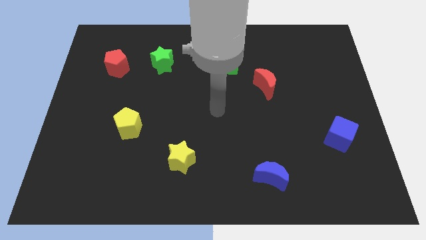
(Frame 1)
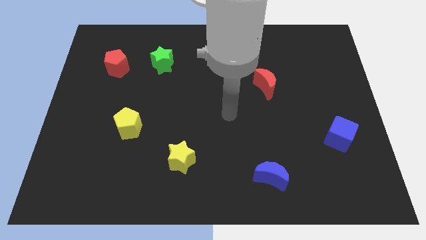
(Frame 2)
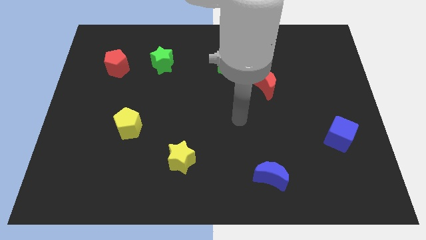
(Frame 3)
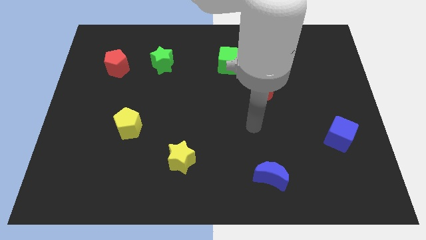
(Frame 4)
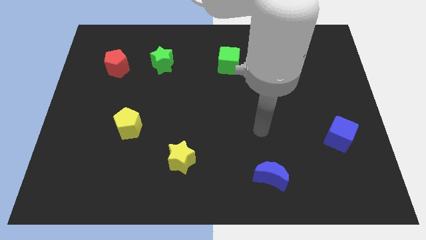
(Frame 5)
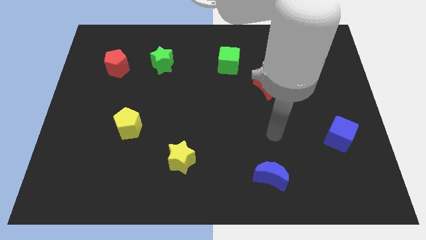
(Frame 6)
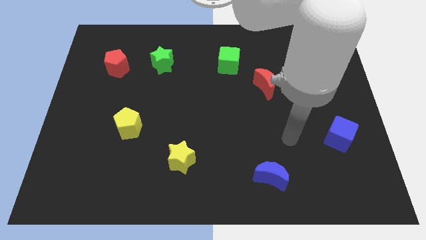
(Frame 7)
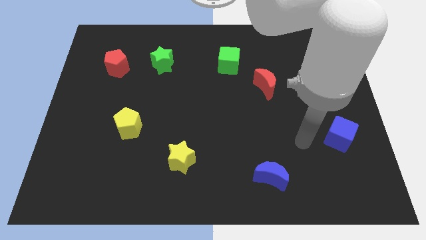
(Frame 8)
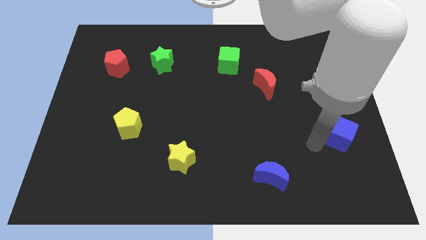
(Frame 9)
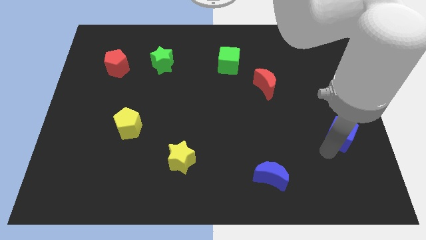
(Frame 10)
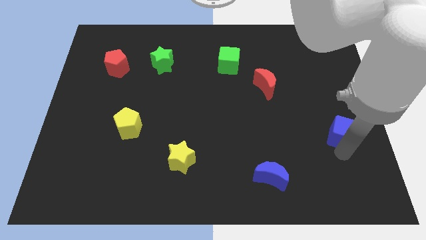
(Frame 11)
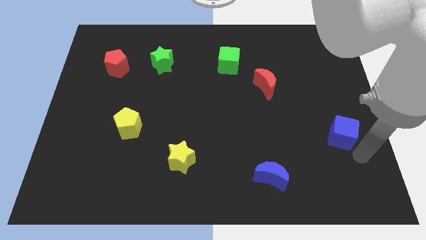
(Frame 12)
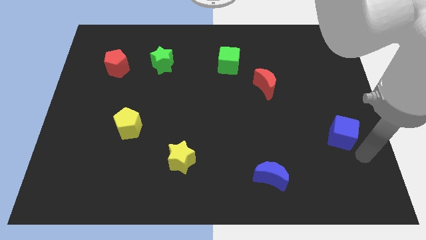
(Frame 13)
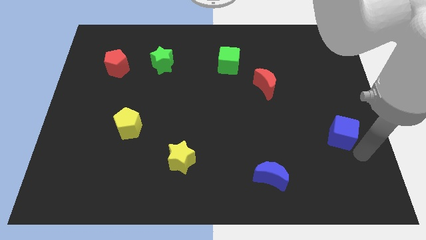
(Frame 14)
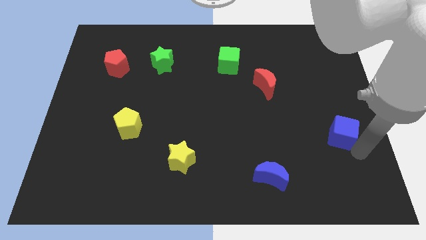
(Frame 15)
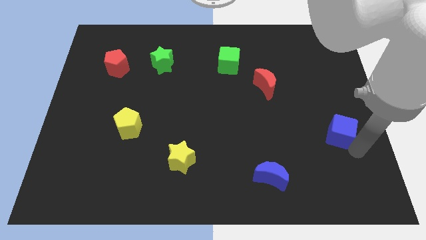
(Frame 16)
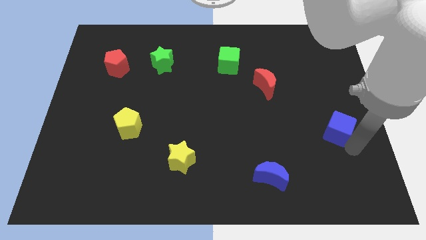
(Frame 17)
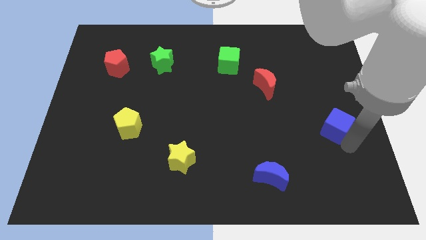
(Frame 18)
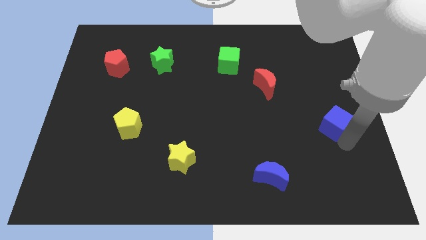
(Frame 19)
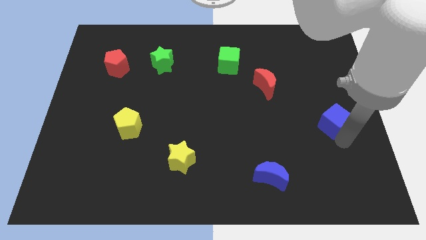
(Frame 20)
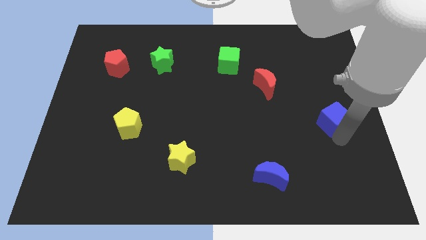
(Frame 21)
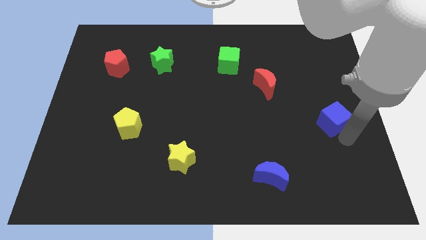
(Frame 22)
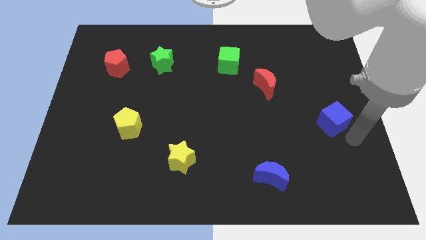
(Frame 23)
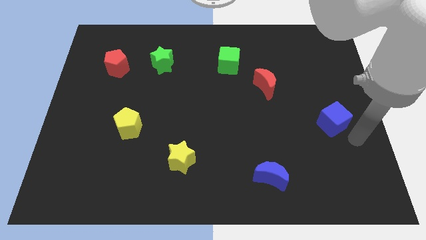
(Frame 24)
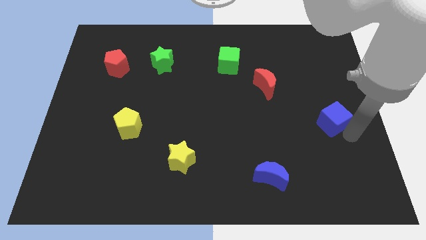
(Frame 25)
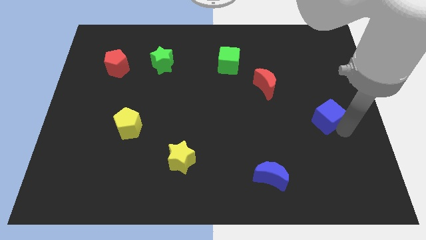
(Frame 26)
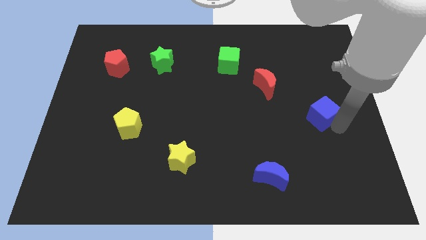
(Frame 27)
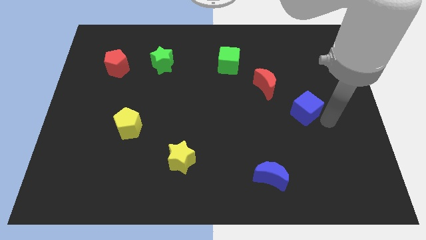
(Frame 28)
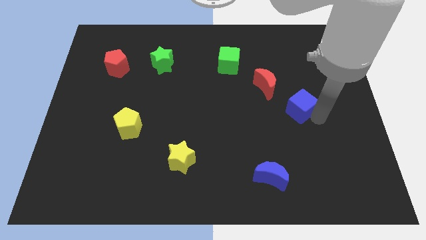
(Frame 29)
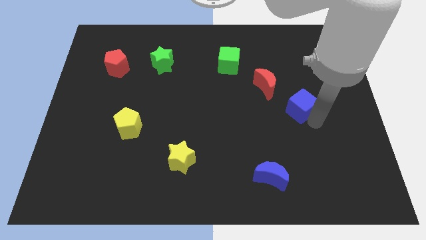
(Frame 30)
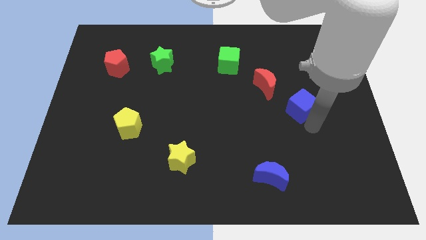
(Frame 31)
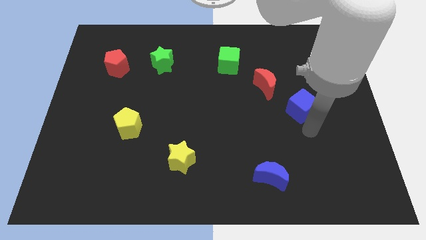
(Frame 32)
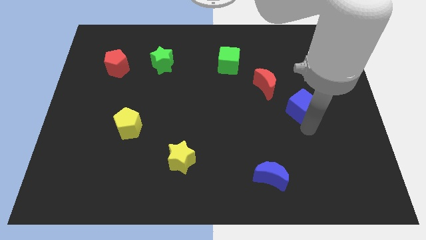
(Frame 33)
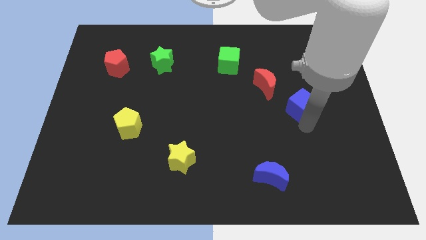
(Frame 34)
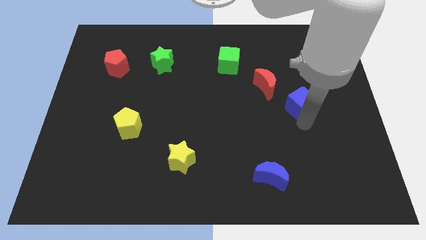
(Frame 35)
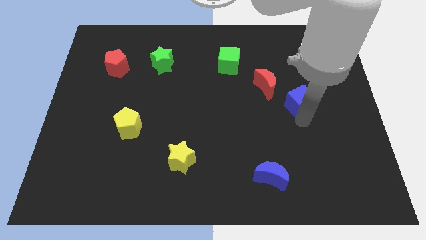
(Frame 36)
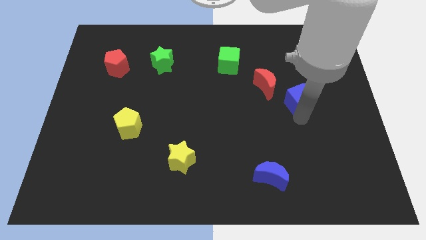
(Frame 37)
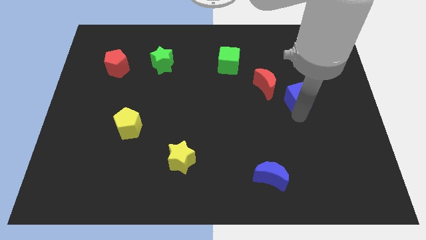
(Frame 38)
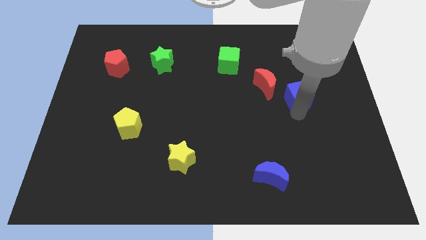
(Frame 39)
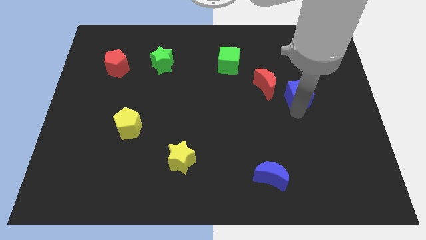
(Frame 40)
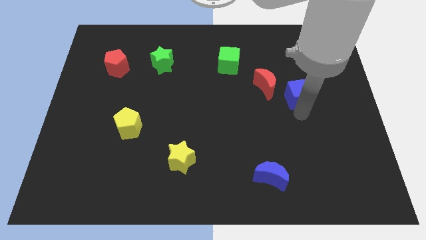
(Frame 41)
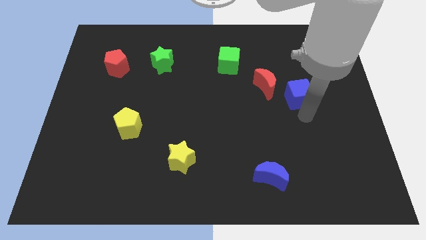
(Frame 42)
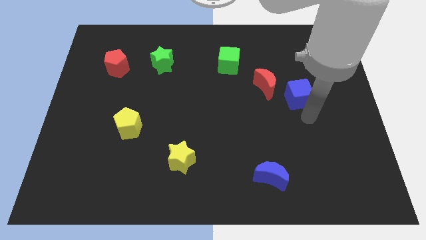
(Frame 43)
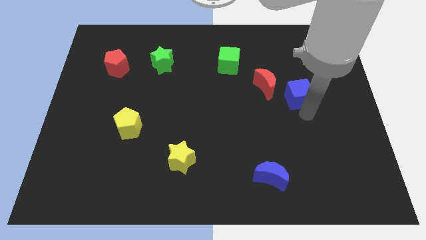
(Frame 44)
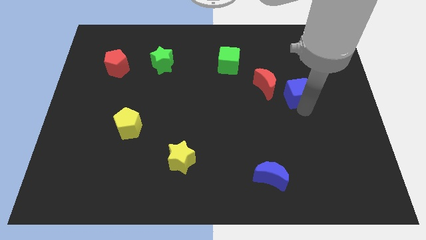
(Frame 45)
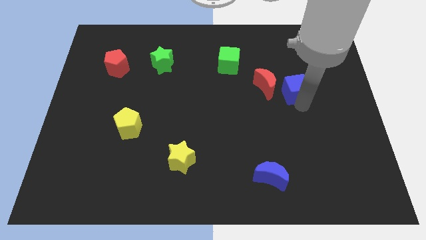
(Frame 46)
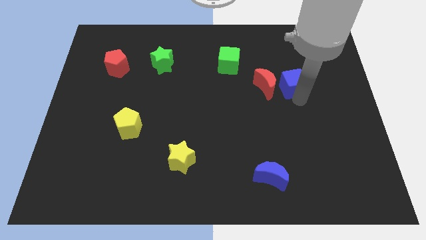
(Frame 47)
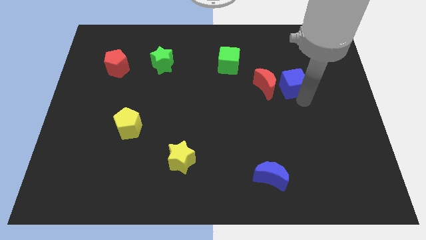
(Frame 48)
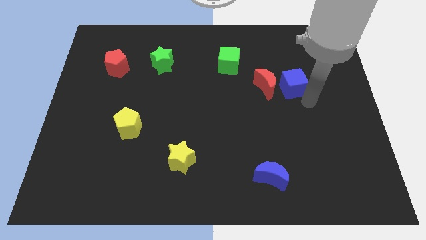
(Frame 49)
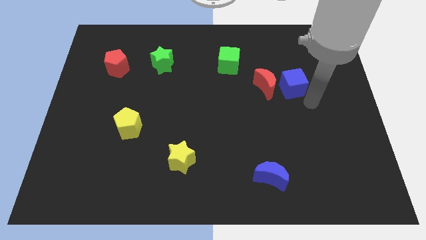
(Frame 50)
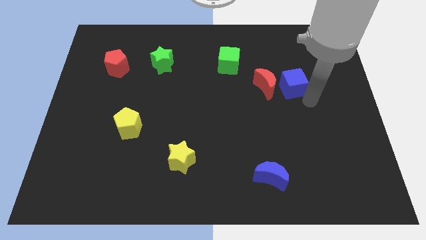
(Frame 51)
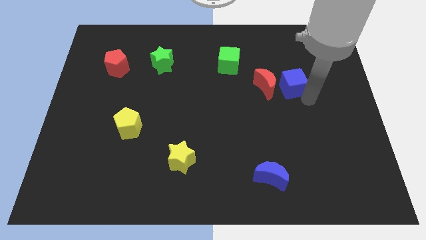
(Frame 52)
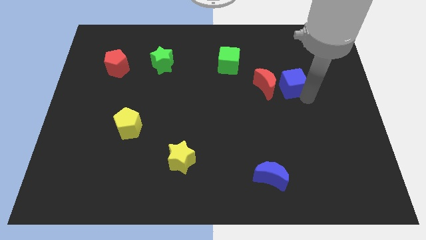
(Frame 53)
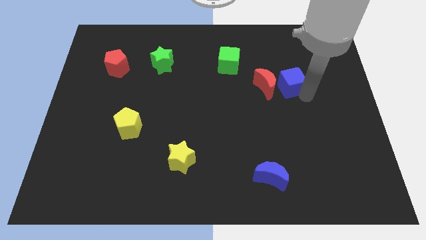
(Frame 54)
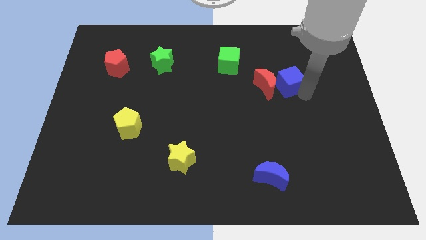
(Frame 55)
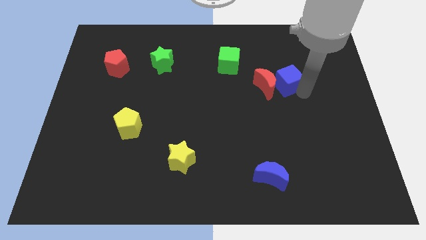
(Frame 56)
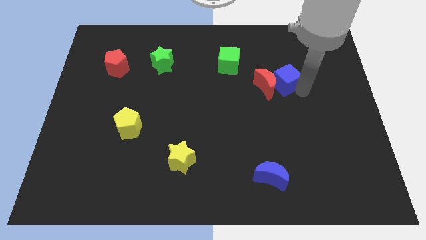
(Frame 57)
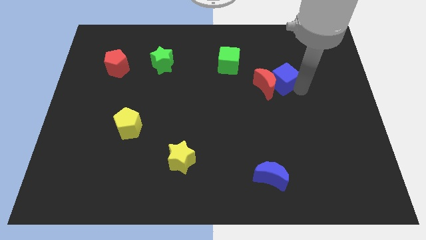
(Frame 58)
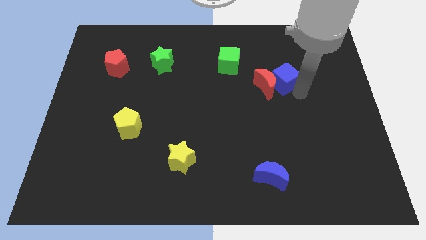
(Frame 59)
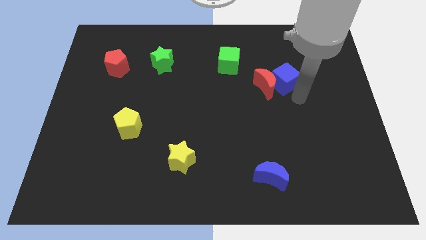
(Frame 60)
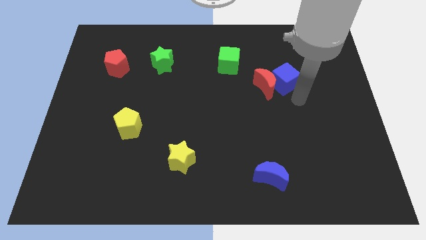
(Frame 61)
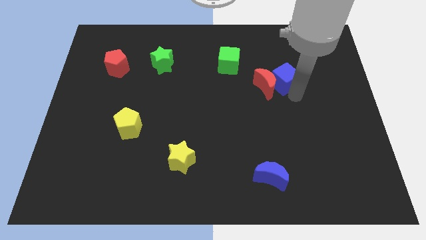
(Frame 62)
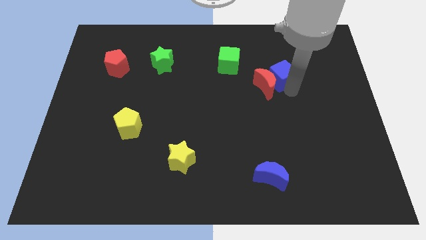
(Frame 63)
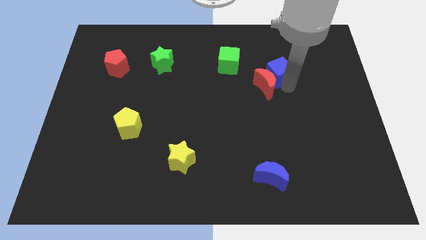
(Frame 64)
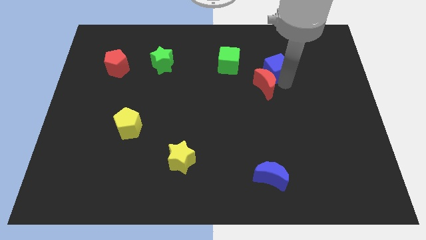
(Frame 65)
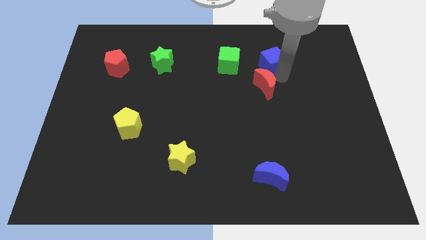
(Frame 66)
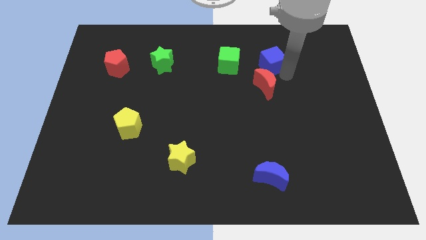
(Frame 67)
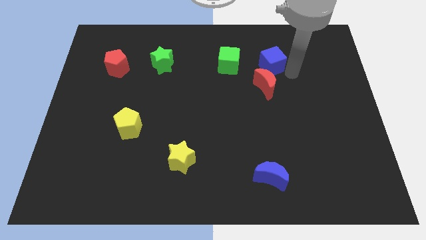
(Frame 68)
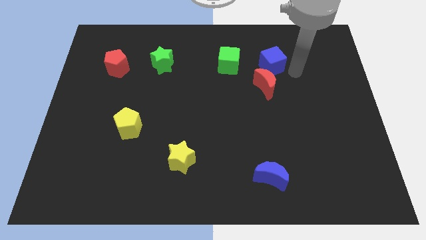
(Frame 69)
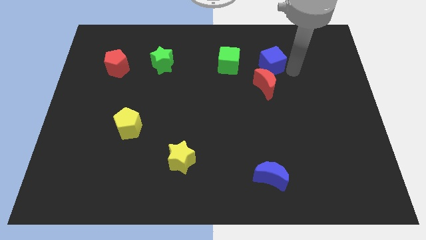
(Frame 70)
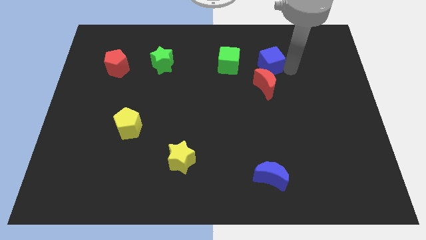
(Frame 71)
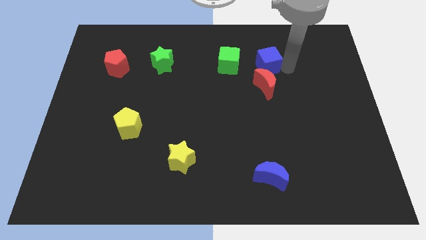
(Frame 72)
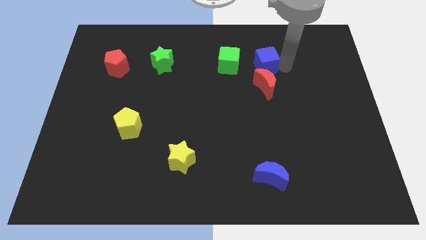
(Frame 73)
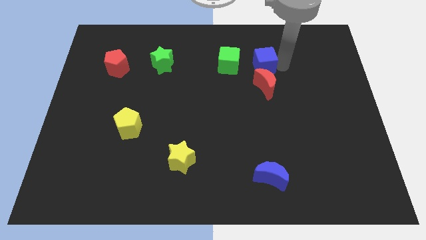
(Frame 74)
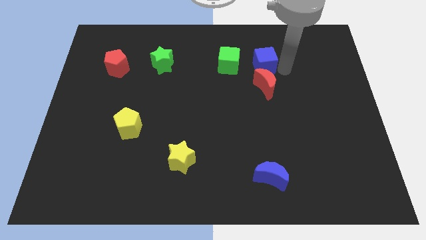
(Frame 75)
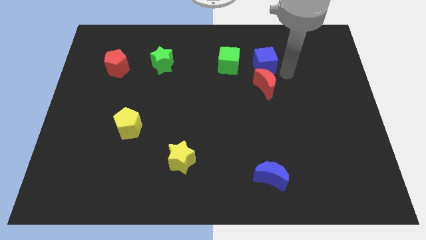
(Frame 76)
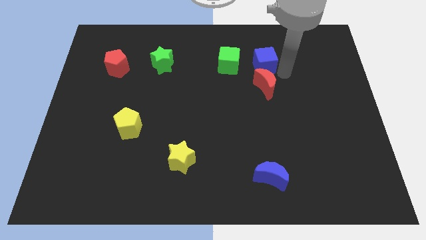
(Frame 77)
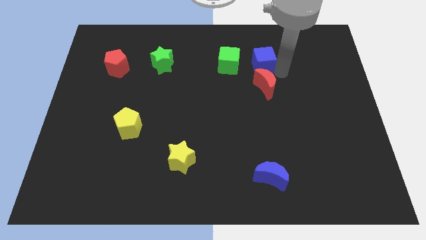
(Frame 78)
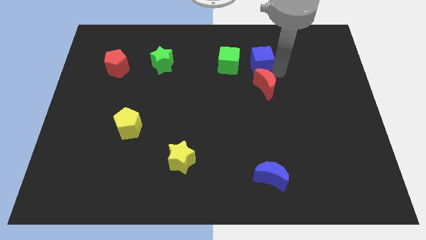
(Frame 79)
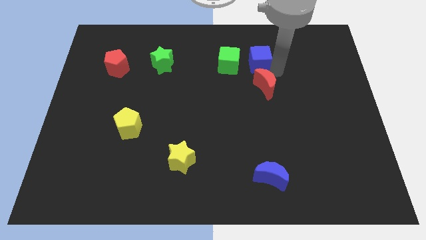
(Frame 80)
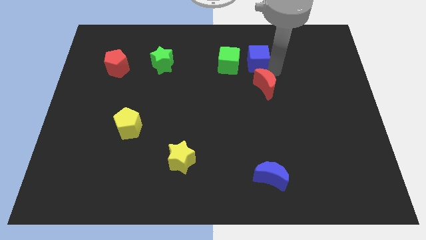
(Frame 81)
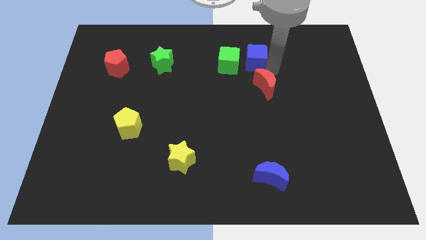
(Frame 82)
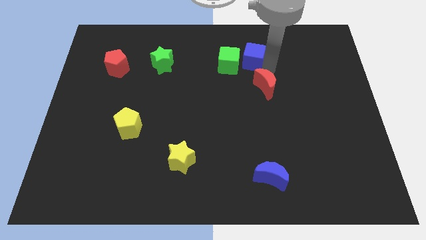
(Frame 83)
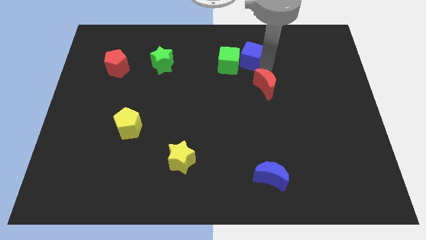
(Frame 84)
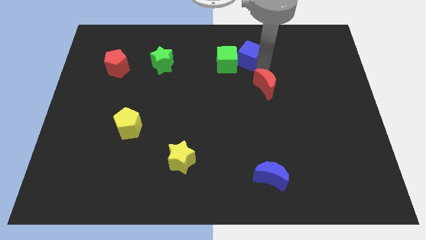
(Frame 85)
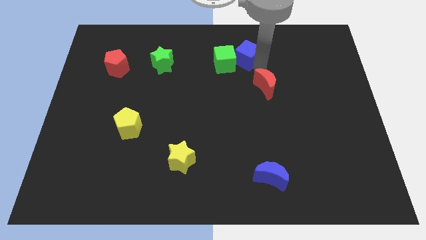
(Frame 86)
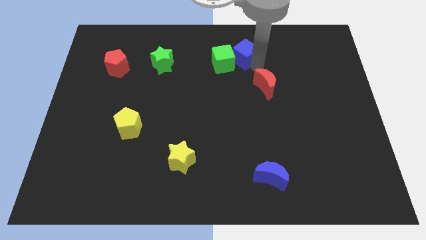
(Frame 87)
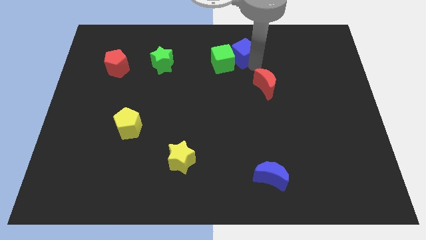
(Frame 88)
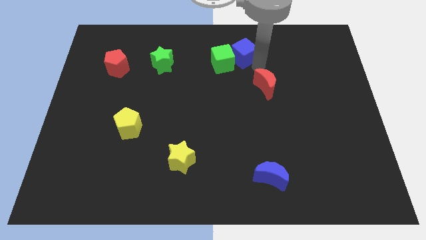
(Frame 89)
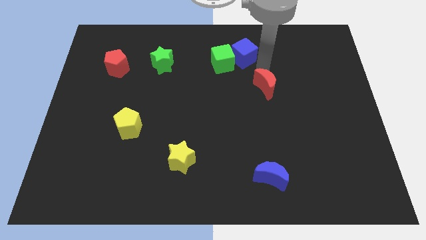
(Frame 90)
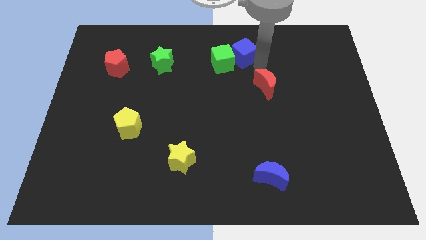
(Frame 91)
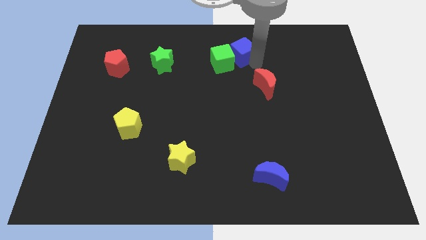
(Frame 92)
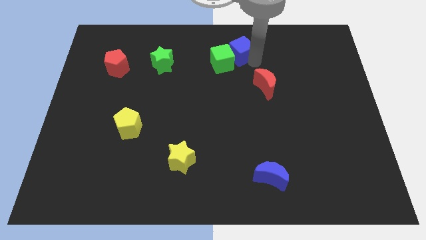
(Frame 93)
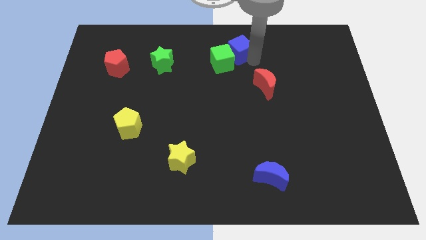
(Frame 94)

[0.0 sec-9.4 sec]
move the blue cube to the towards your base
